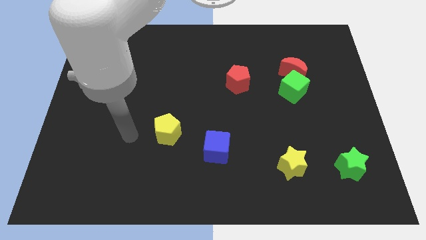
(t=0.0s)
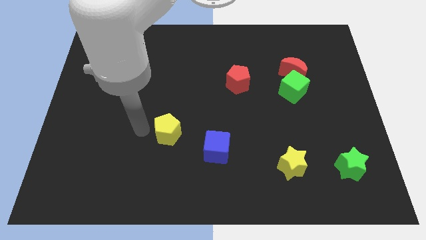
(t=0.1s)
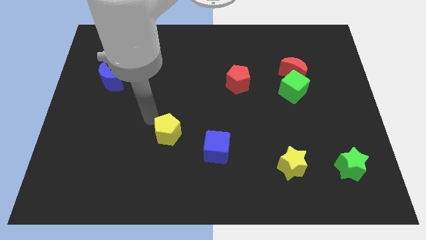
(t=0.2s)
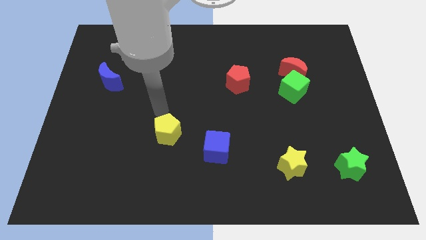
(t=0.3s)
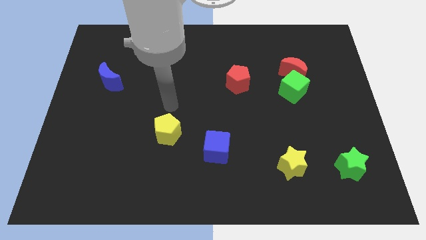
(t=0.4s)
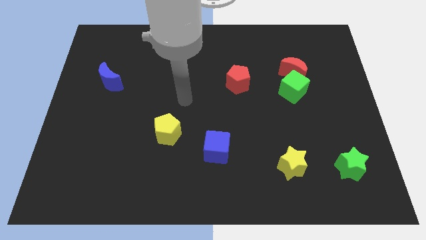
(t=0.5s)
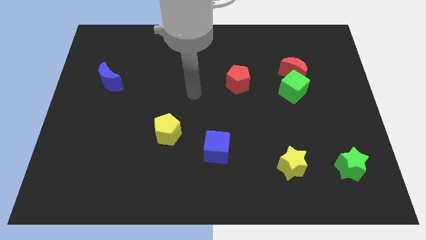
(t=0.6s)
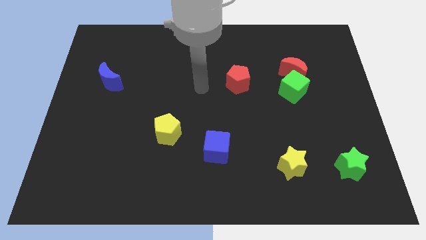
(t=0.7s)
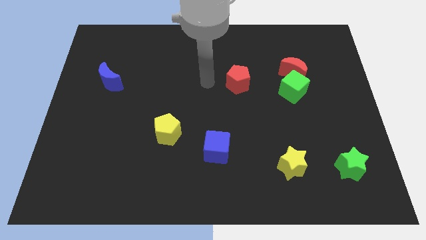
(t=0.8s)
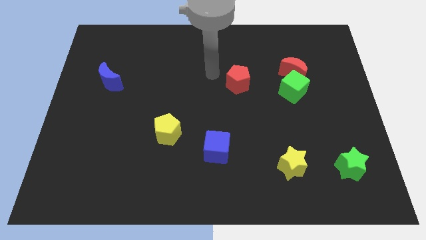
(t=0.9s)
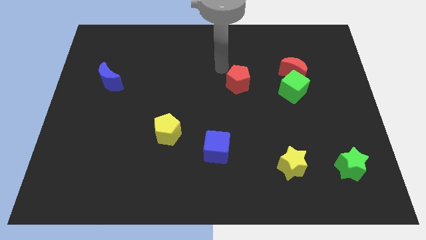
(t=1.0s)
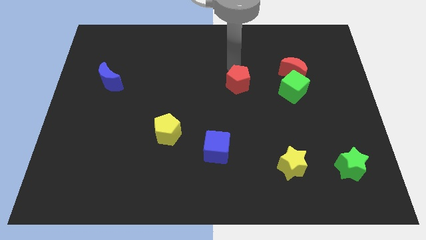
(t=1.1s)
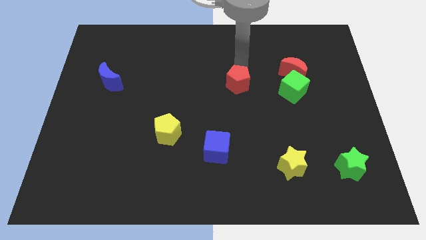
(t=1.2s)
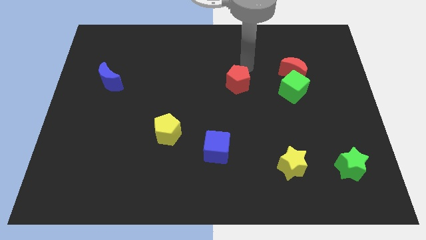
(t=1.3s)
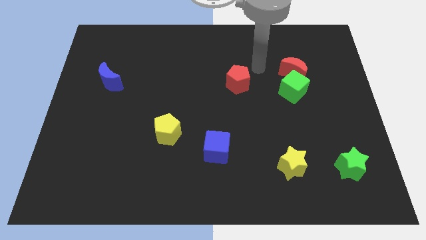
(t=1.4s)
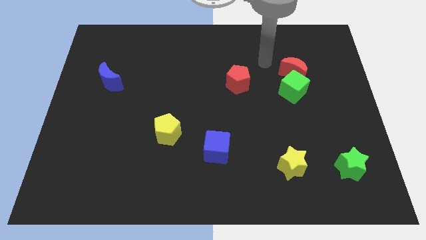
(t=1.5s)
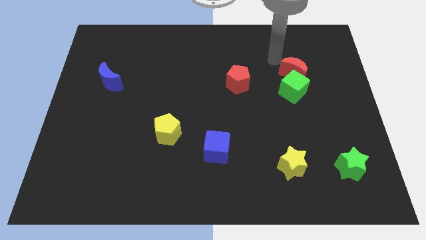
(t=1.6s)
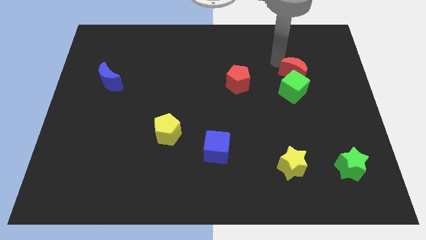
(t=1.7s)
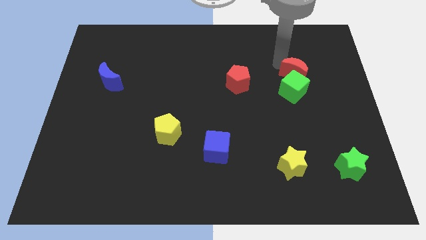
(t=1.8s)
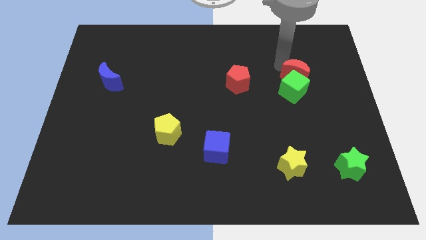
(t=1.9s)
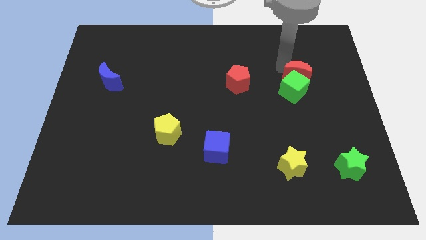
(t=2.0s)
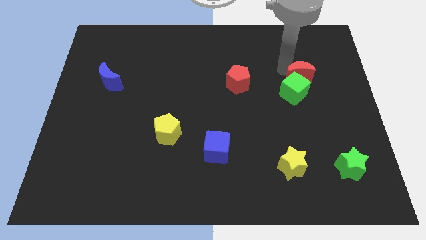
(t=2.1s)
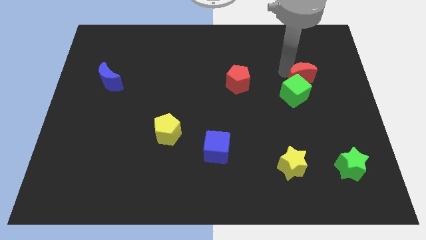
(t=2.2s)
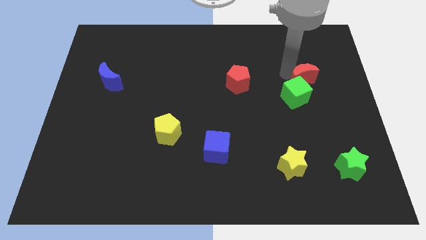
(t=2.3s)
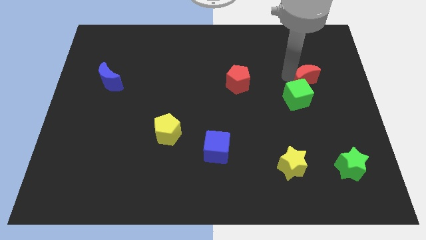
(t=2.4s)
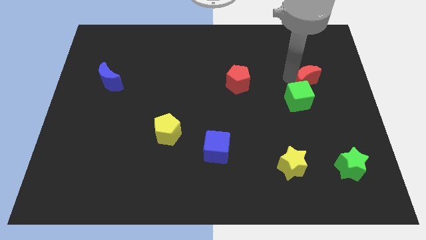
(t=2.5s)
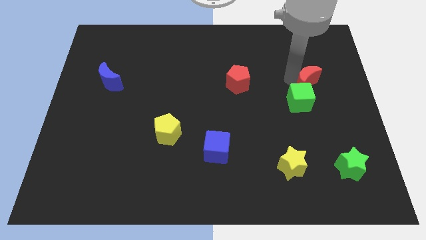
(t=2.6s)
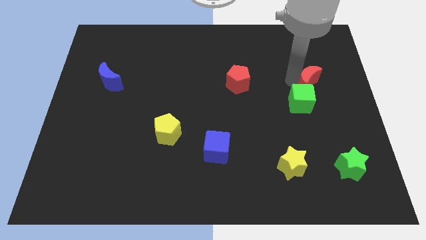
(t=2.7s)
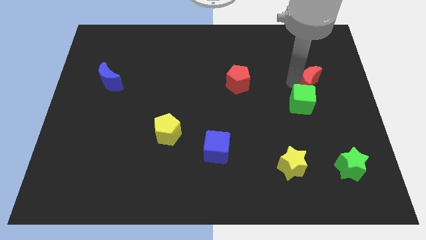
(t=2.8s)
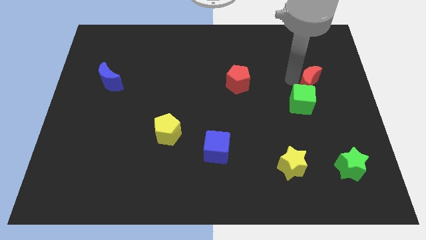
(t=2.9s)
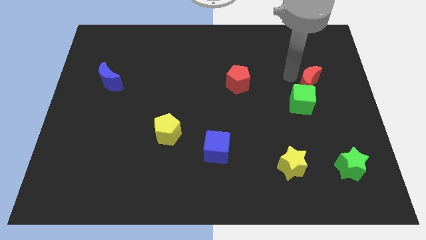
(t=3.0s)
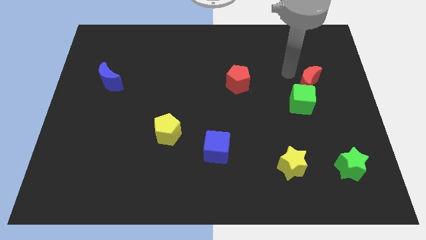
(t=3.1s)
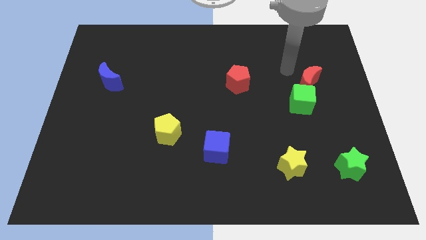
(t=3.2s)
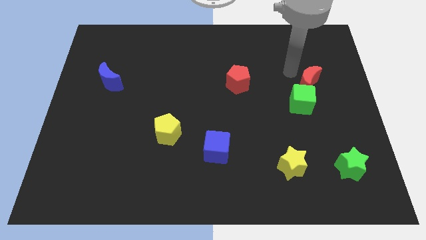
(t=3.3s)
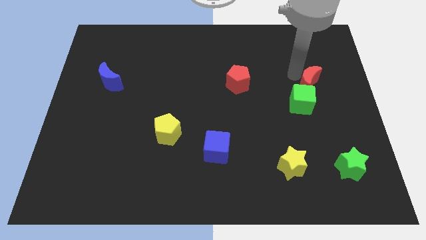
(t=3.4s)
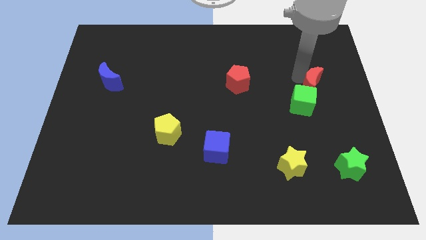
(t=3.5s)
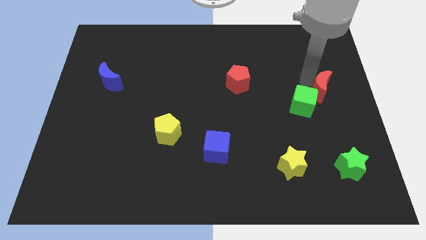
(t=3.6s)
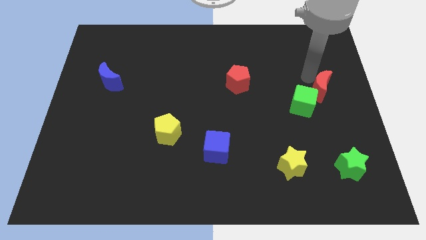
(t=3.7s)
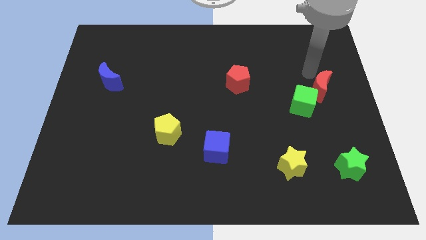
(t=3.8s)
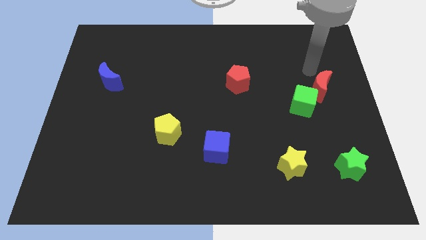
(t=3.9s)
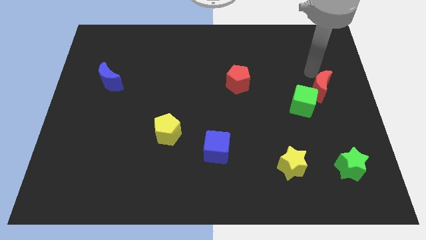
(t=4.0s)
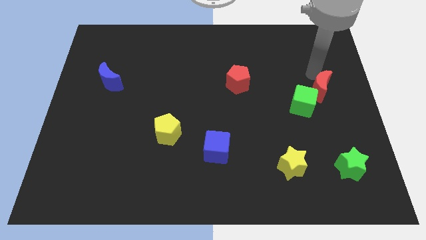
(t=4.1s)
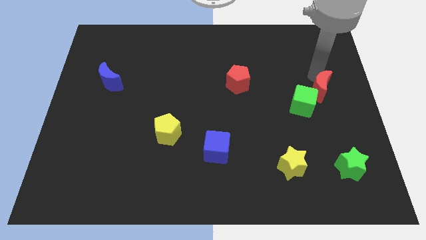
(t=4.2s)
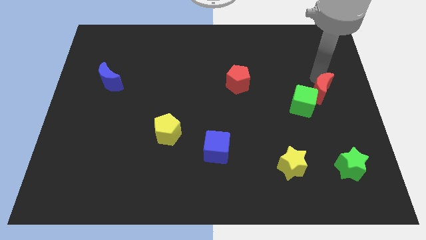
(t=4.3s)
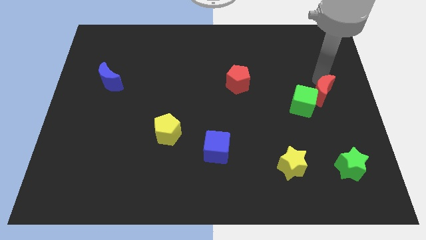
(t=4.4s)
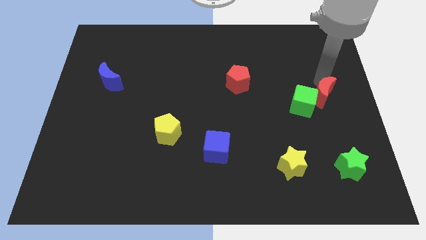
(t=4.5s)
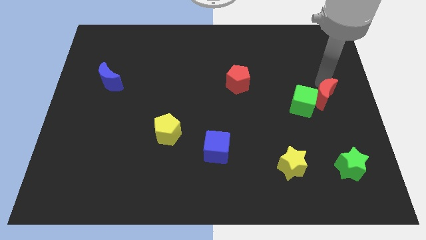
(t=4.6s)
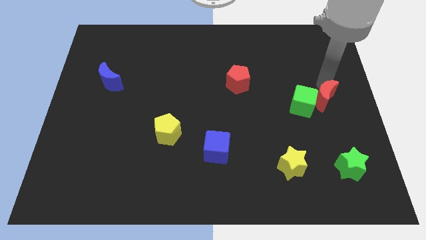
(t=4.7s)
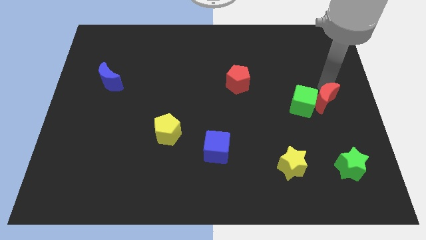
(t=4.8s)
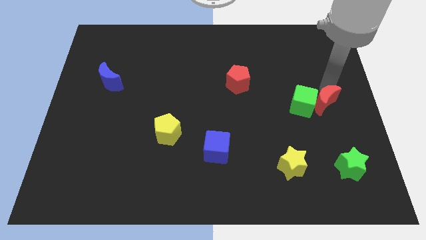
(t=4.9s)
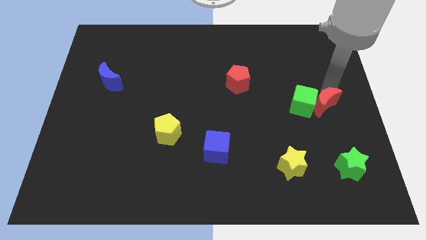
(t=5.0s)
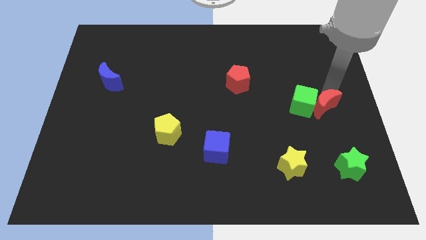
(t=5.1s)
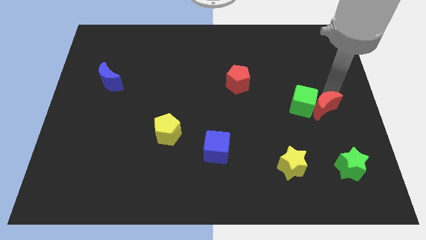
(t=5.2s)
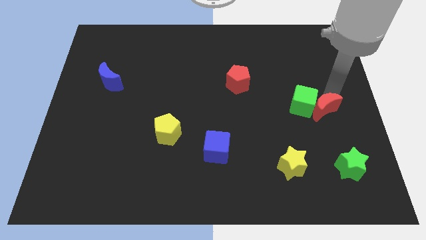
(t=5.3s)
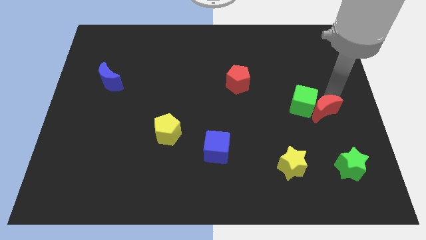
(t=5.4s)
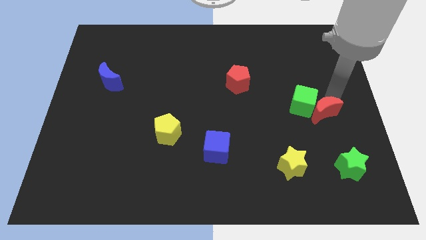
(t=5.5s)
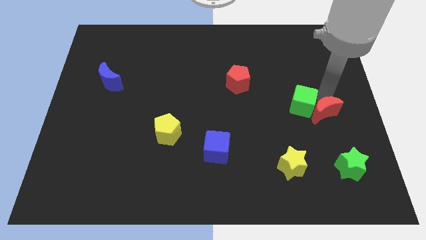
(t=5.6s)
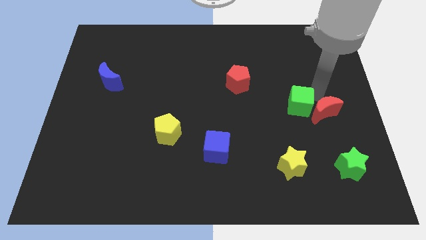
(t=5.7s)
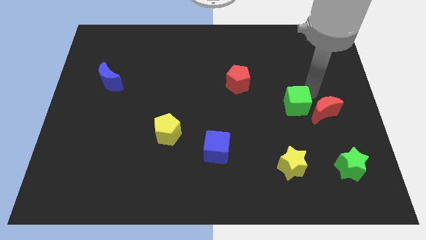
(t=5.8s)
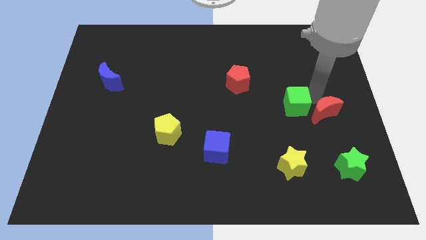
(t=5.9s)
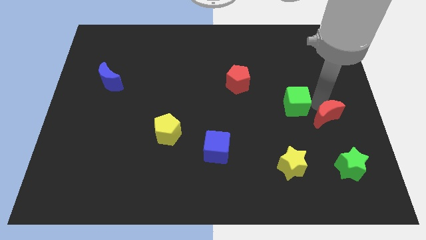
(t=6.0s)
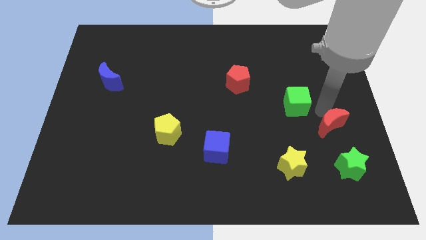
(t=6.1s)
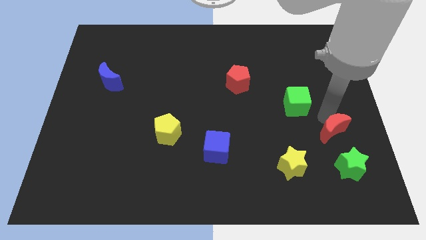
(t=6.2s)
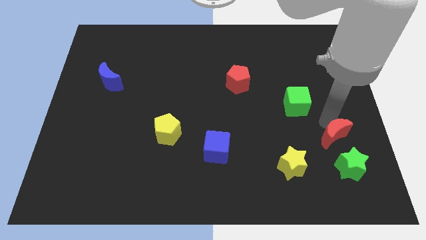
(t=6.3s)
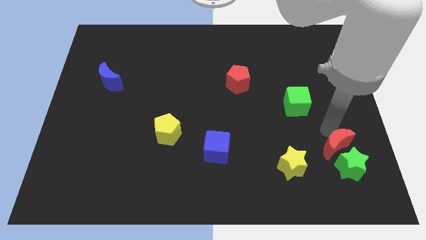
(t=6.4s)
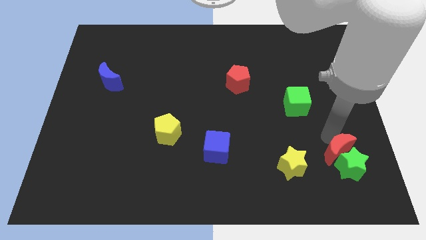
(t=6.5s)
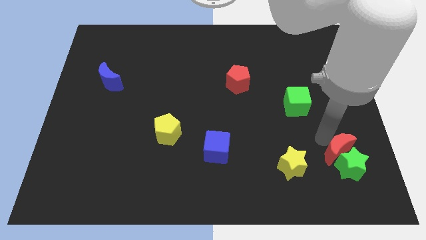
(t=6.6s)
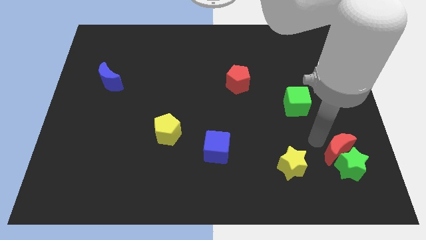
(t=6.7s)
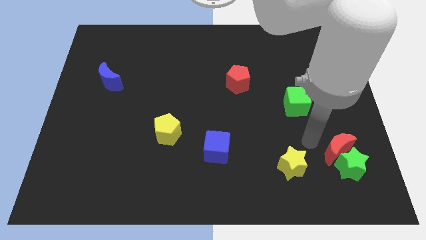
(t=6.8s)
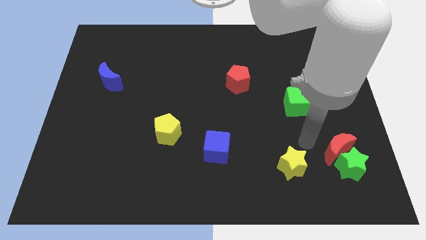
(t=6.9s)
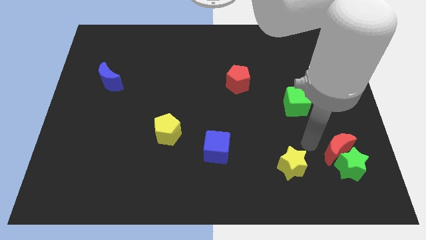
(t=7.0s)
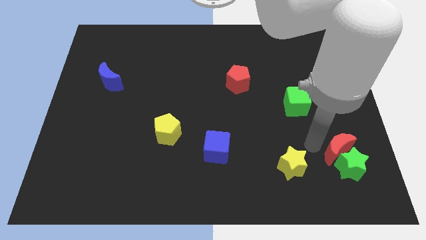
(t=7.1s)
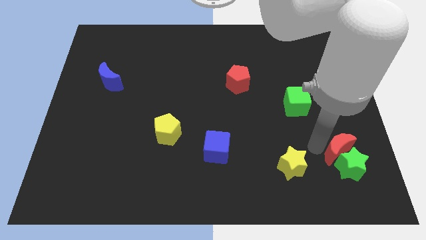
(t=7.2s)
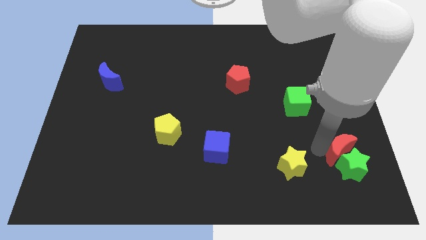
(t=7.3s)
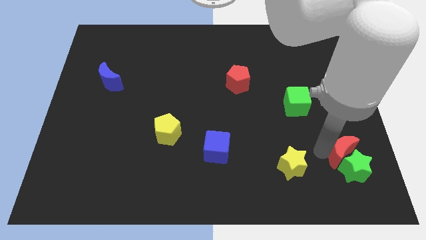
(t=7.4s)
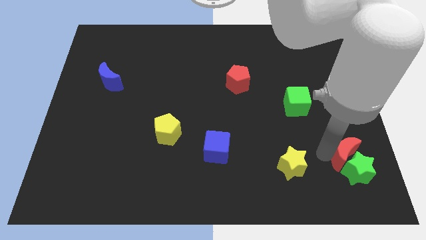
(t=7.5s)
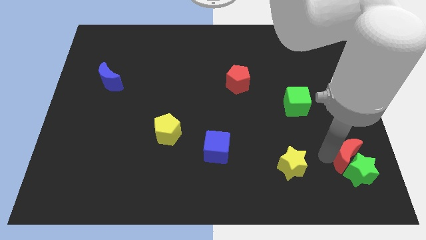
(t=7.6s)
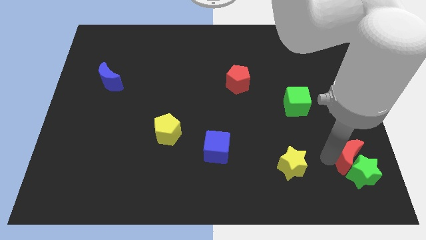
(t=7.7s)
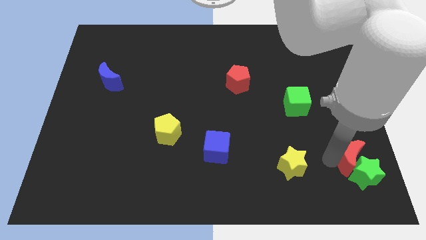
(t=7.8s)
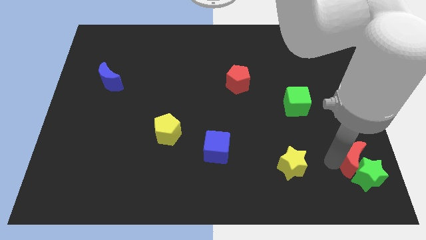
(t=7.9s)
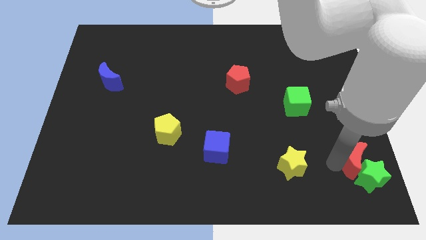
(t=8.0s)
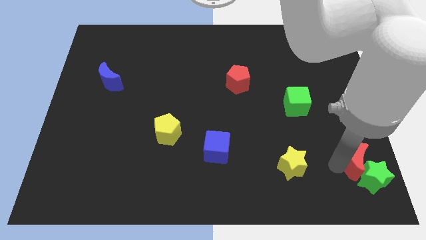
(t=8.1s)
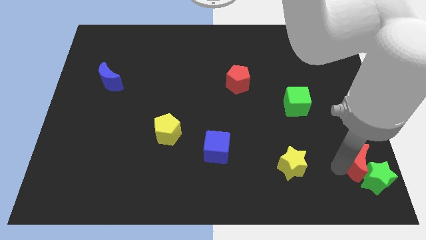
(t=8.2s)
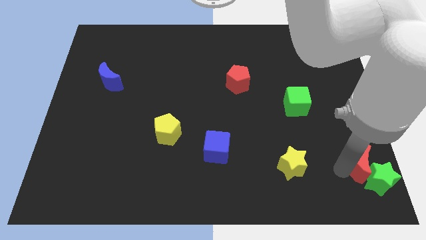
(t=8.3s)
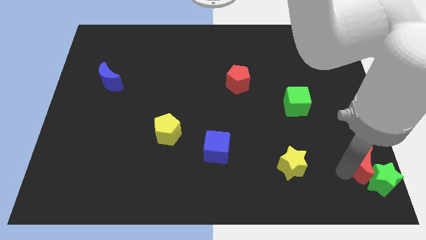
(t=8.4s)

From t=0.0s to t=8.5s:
move the red moon to the bottom right of the board
